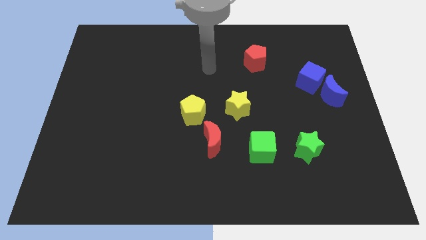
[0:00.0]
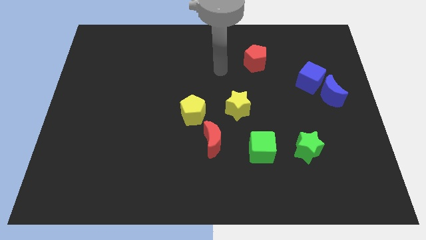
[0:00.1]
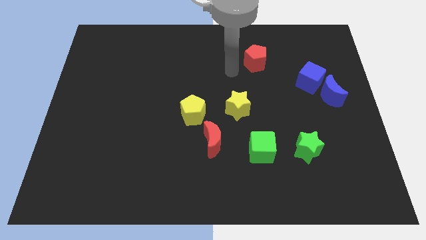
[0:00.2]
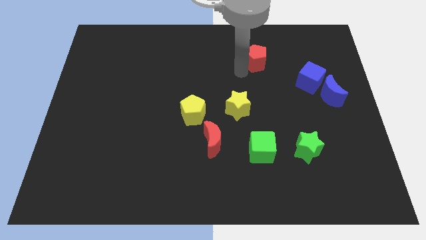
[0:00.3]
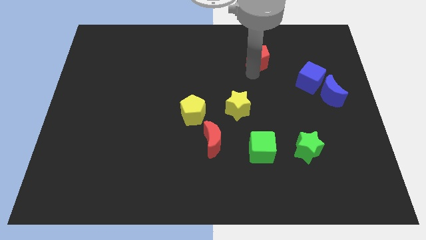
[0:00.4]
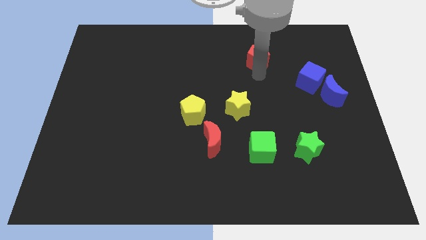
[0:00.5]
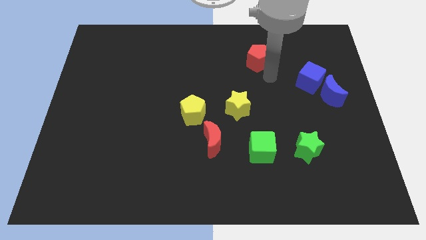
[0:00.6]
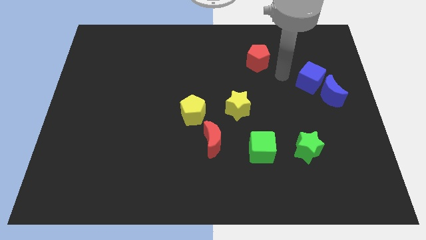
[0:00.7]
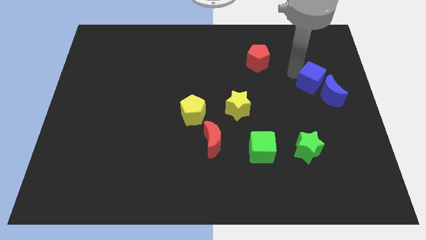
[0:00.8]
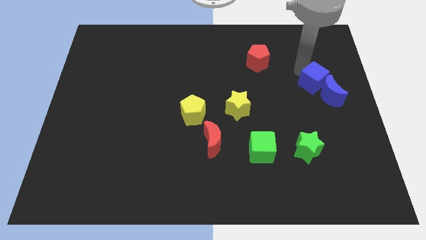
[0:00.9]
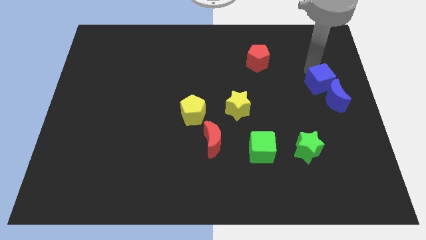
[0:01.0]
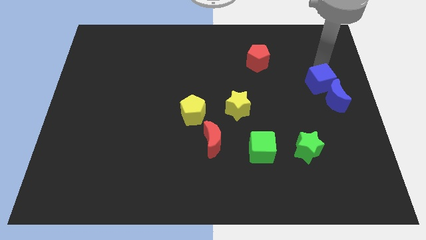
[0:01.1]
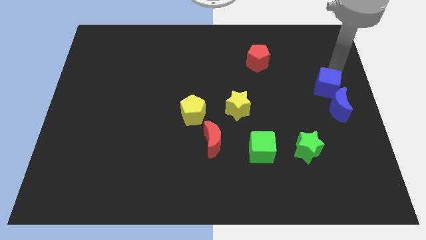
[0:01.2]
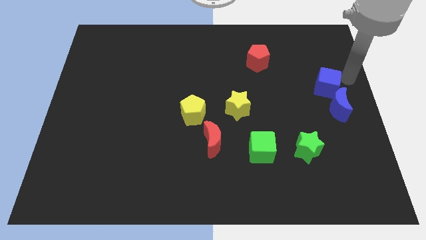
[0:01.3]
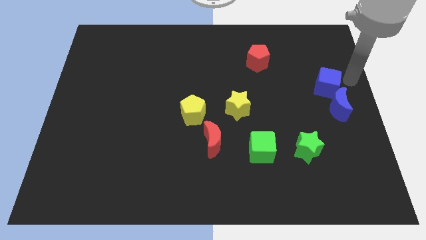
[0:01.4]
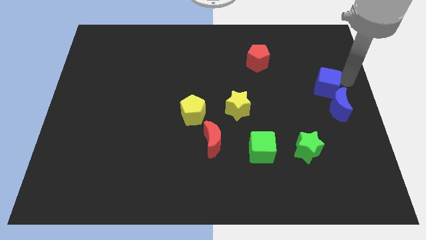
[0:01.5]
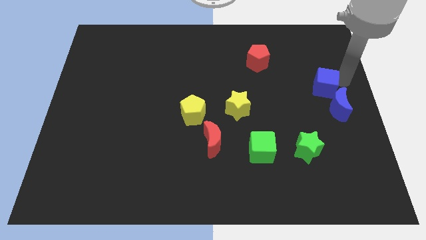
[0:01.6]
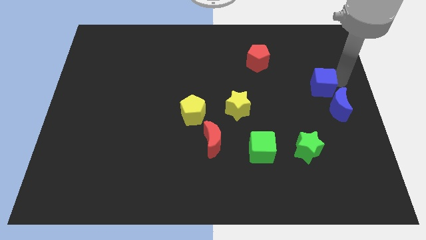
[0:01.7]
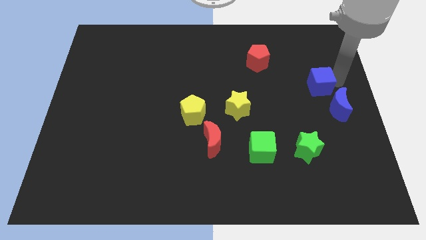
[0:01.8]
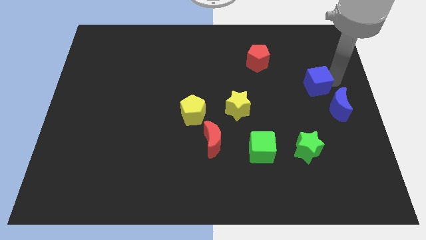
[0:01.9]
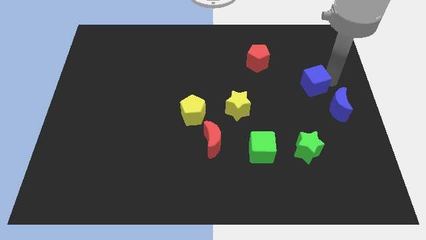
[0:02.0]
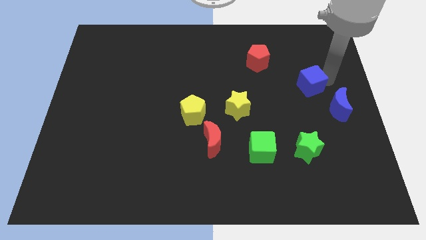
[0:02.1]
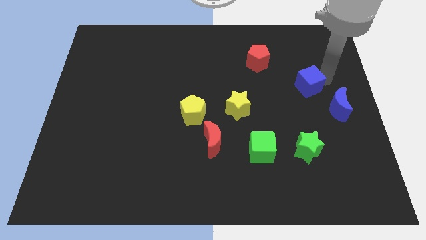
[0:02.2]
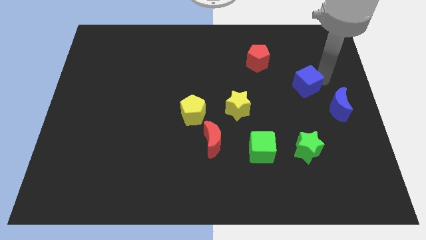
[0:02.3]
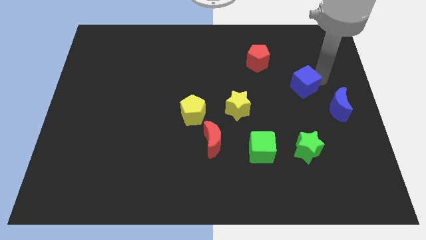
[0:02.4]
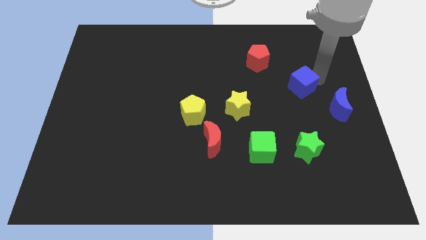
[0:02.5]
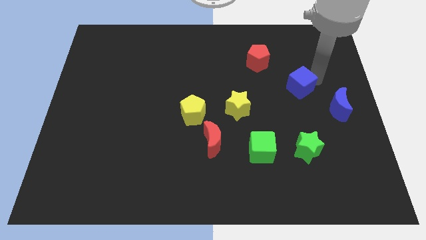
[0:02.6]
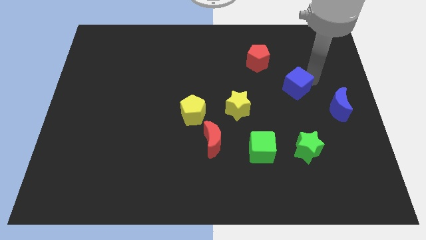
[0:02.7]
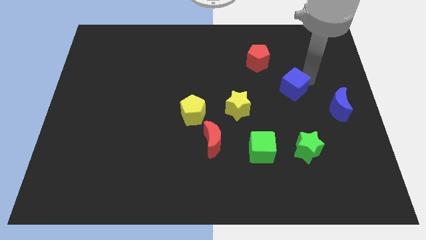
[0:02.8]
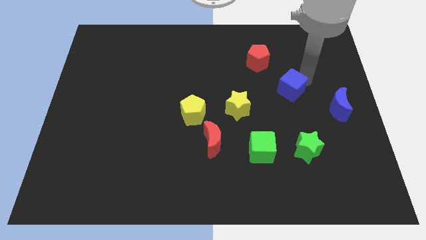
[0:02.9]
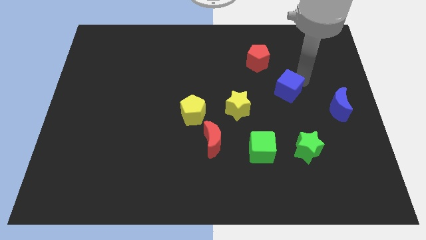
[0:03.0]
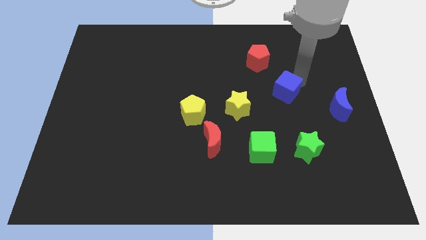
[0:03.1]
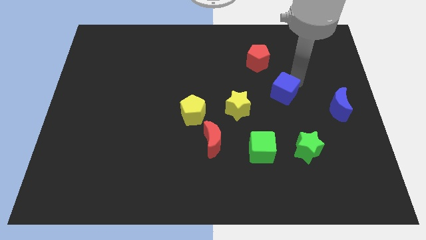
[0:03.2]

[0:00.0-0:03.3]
slightly push the blue cube downwards and left diagonally

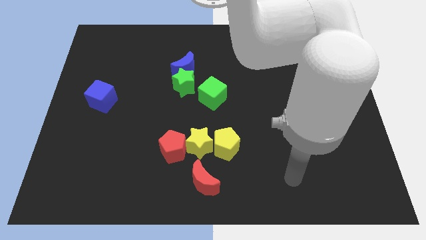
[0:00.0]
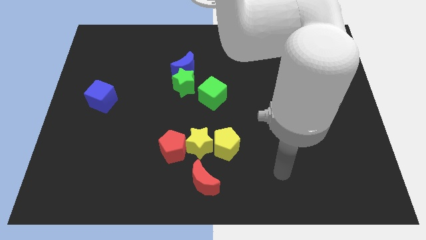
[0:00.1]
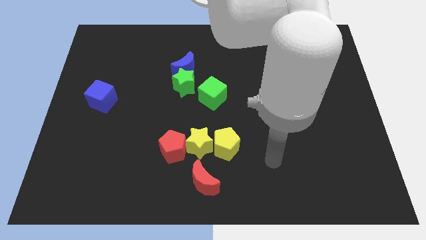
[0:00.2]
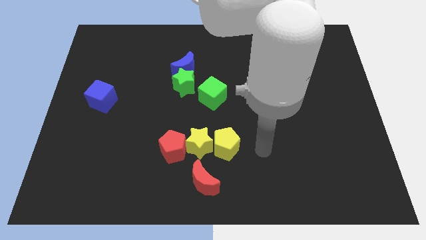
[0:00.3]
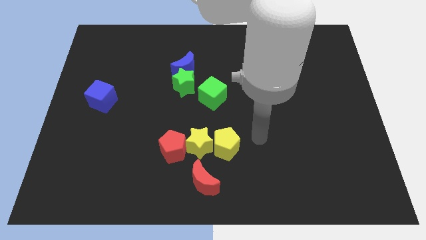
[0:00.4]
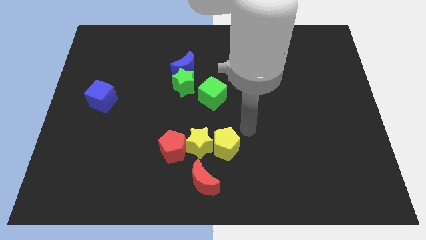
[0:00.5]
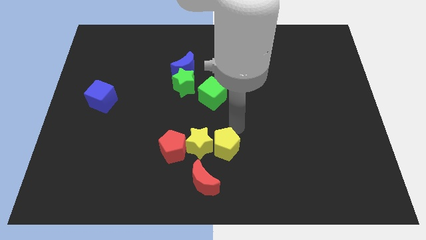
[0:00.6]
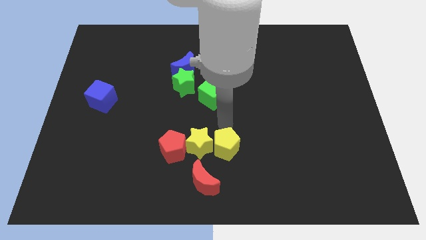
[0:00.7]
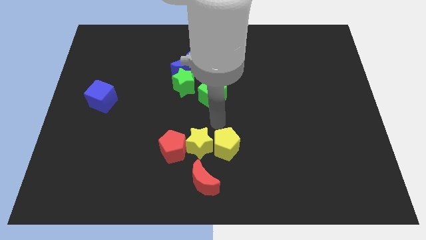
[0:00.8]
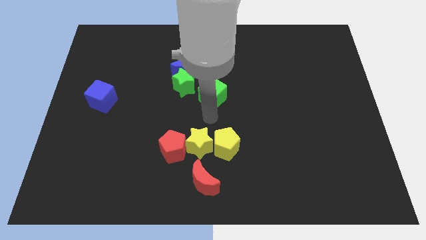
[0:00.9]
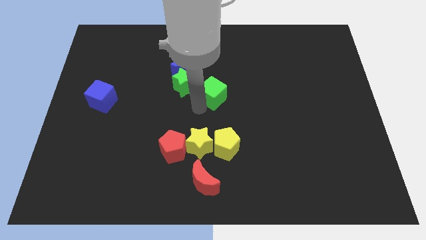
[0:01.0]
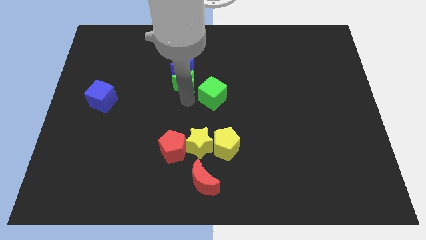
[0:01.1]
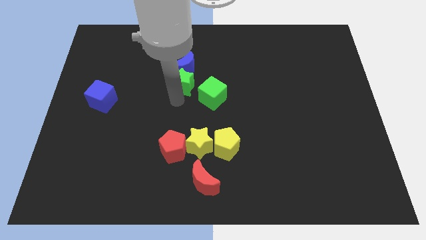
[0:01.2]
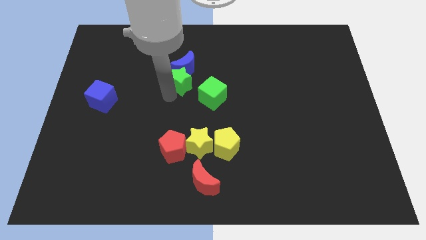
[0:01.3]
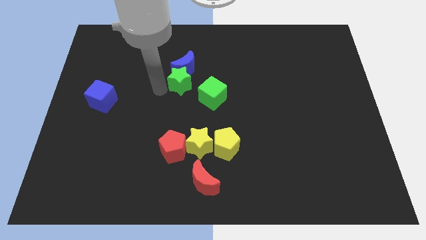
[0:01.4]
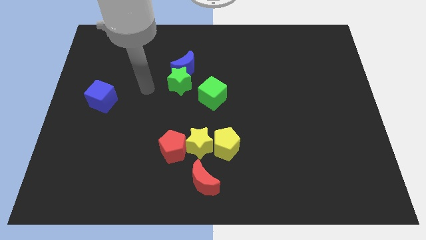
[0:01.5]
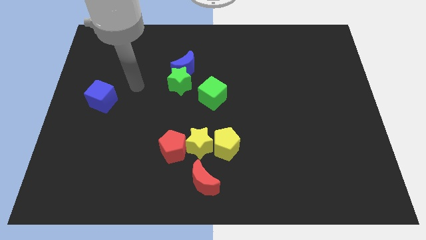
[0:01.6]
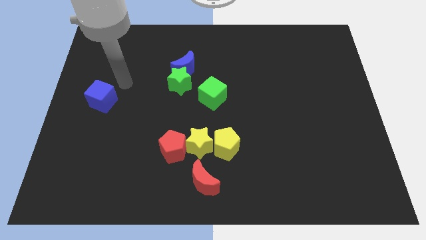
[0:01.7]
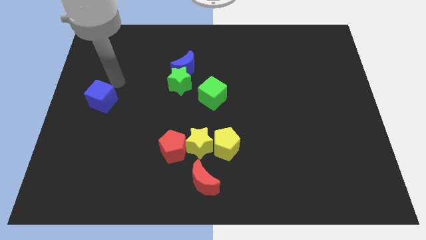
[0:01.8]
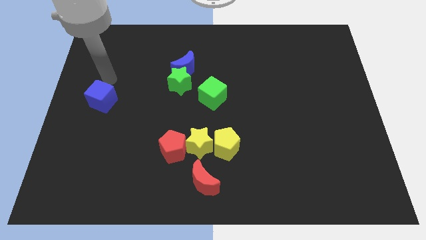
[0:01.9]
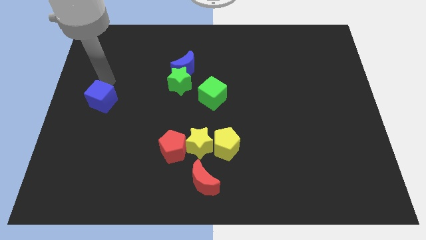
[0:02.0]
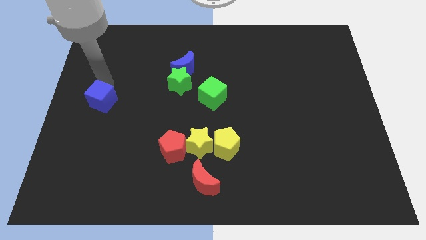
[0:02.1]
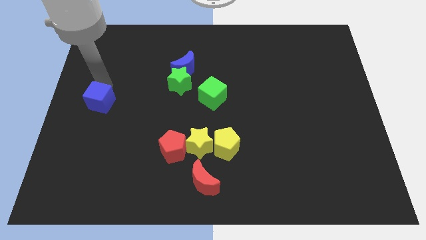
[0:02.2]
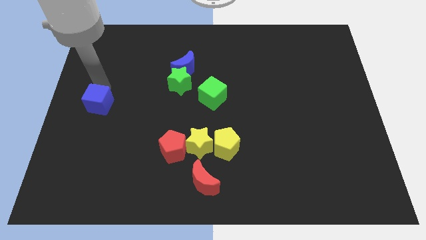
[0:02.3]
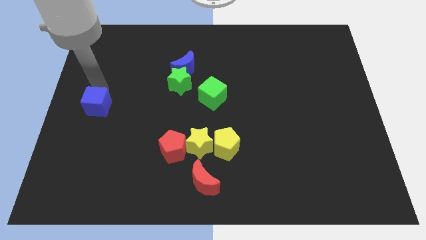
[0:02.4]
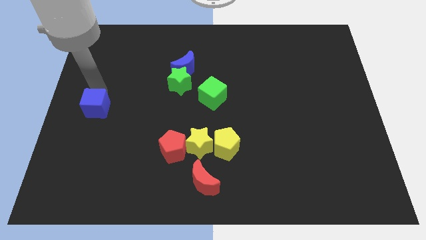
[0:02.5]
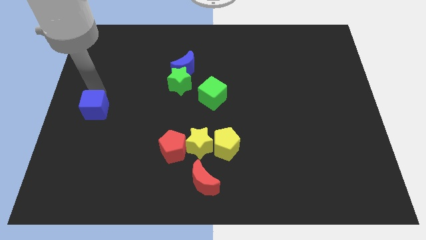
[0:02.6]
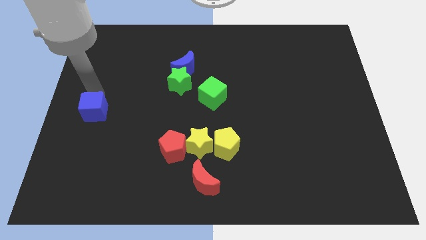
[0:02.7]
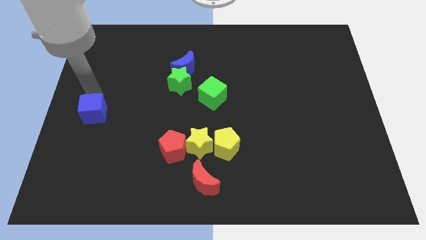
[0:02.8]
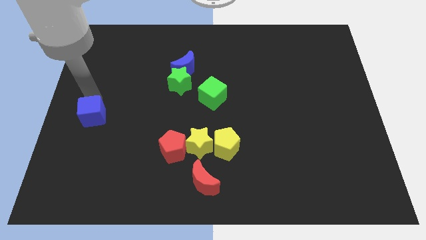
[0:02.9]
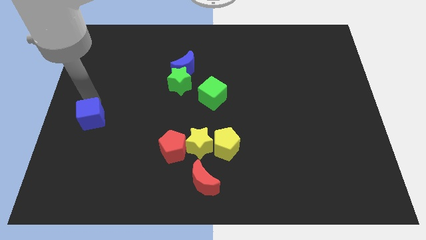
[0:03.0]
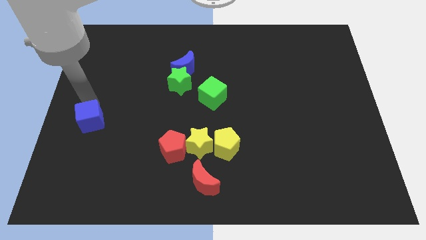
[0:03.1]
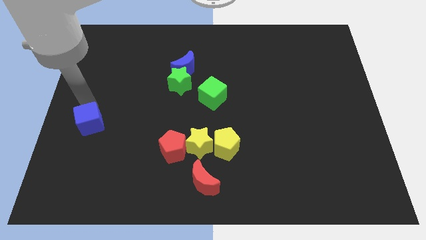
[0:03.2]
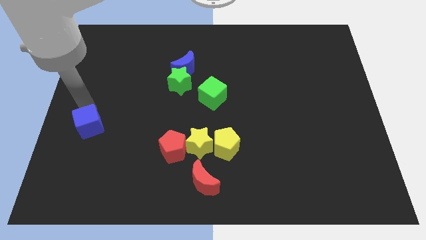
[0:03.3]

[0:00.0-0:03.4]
move the blue cube somewhat down

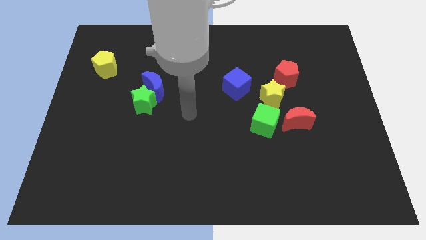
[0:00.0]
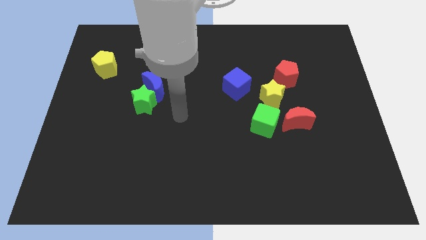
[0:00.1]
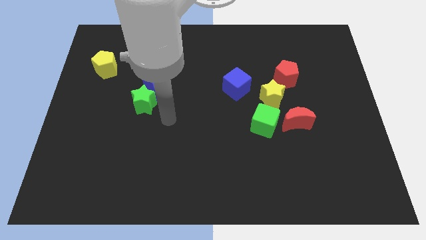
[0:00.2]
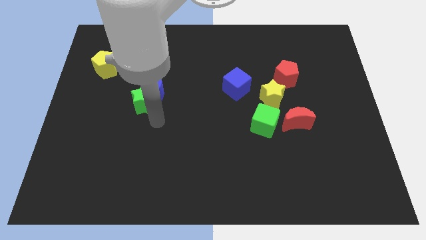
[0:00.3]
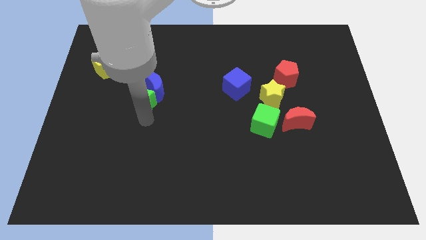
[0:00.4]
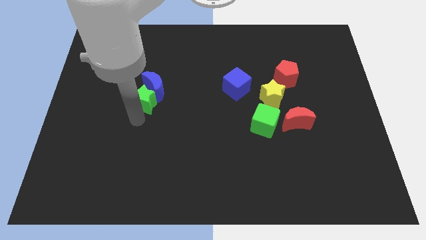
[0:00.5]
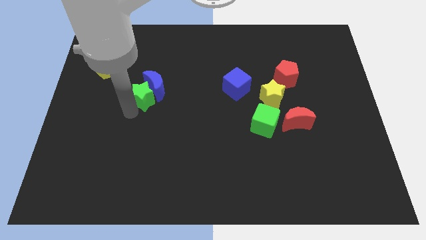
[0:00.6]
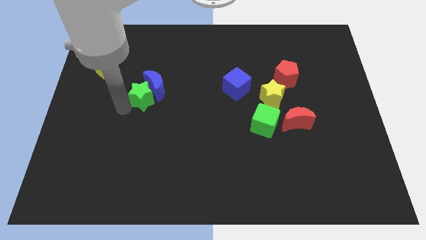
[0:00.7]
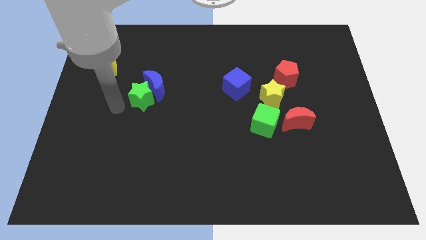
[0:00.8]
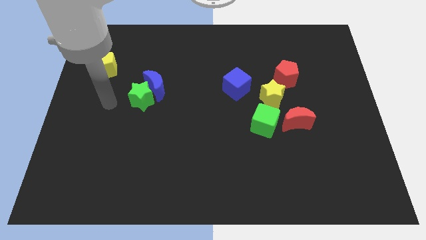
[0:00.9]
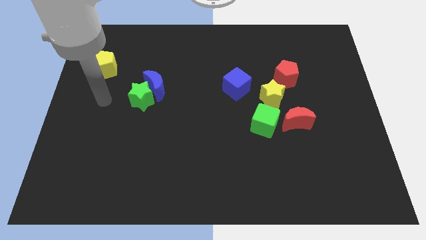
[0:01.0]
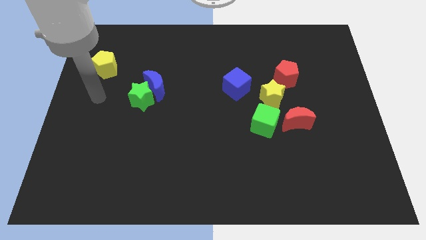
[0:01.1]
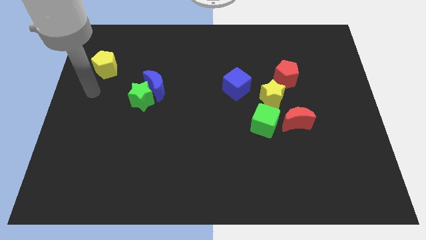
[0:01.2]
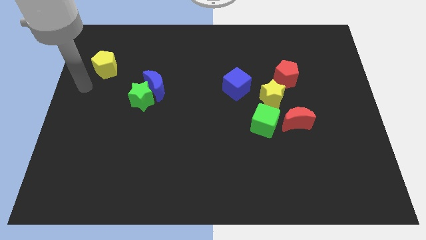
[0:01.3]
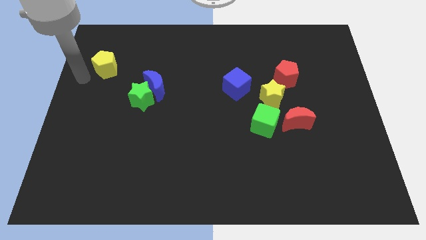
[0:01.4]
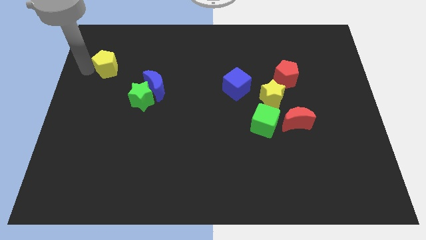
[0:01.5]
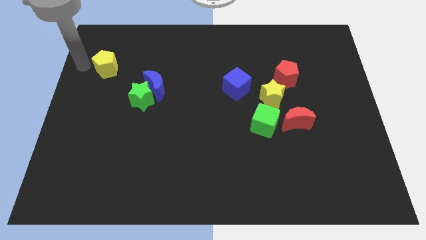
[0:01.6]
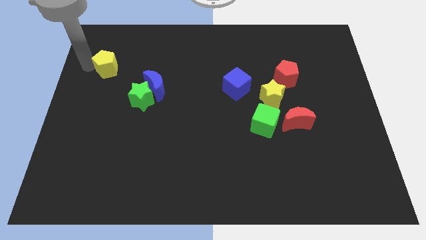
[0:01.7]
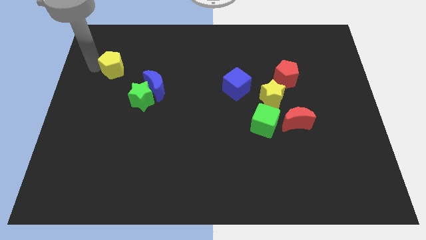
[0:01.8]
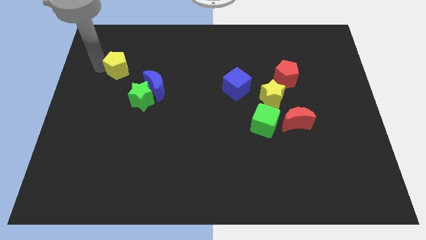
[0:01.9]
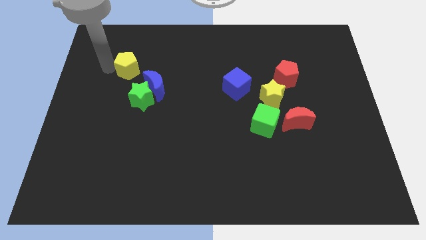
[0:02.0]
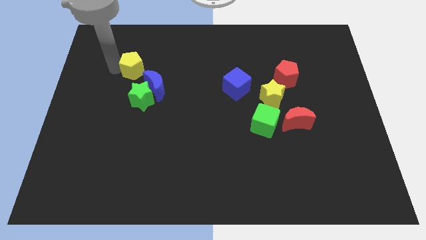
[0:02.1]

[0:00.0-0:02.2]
slightly move the yellow pentagon to the right
